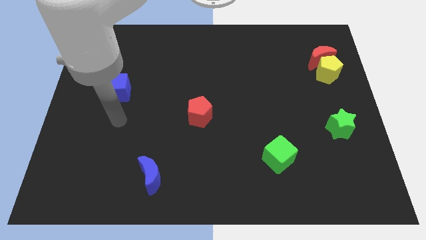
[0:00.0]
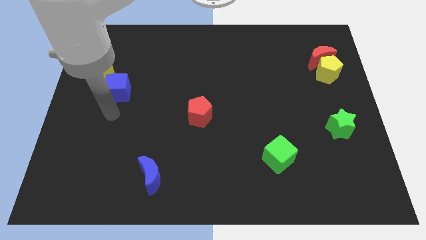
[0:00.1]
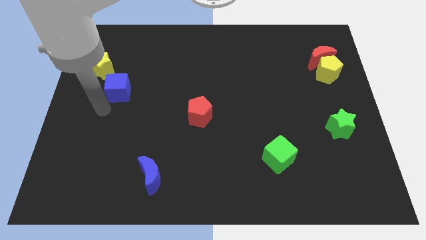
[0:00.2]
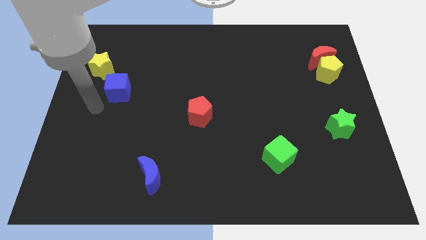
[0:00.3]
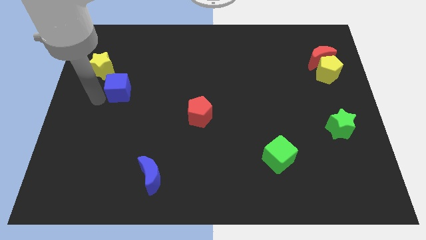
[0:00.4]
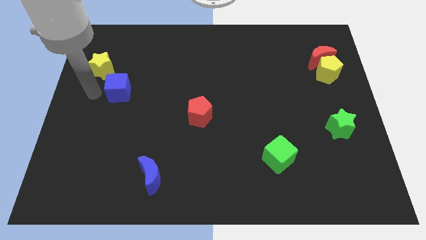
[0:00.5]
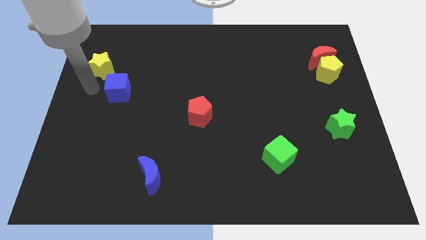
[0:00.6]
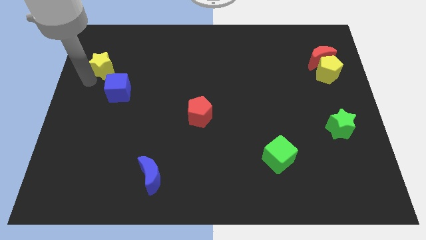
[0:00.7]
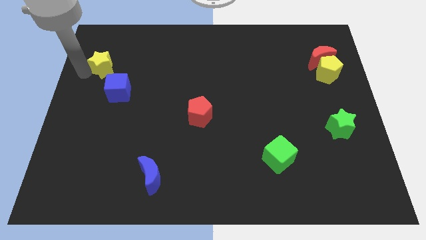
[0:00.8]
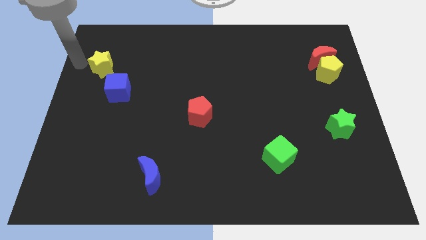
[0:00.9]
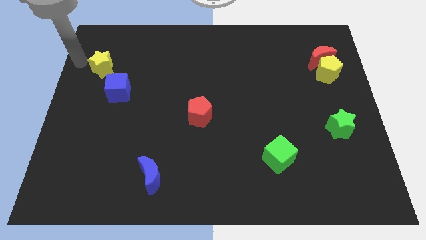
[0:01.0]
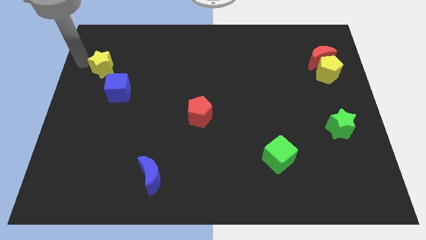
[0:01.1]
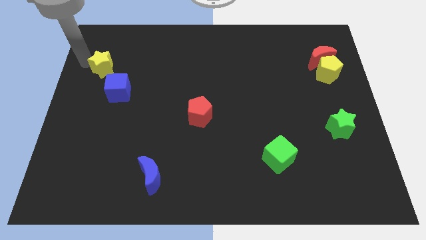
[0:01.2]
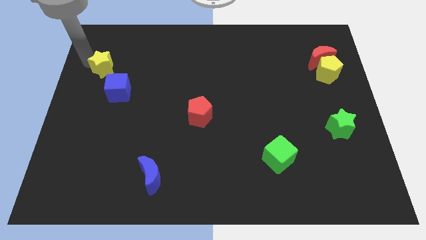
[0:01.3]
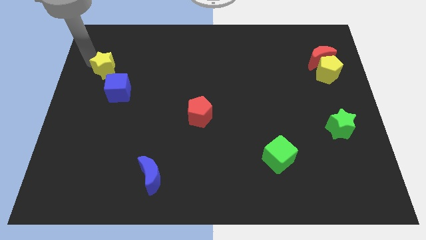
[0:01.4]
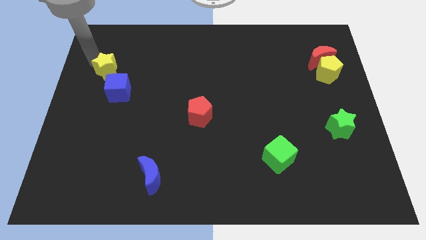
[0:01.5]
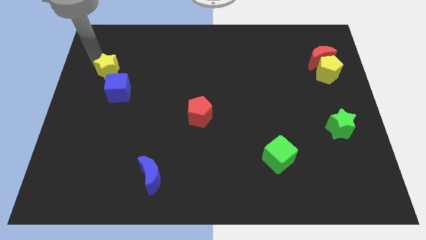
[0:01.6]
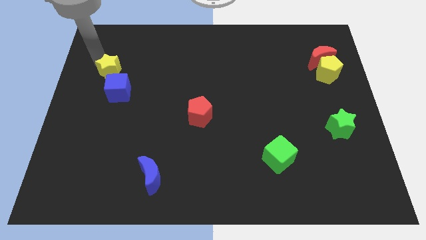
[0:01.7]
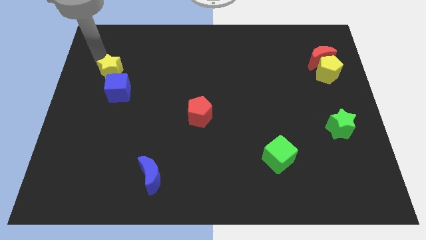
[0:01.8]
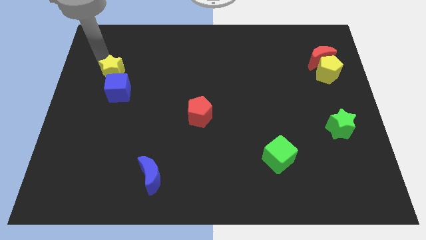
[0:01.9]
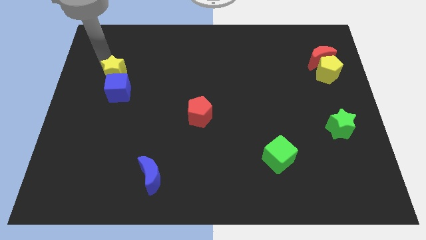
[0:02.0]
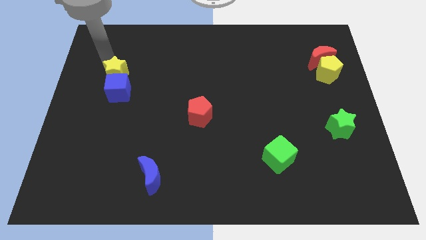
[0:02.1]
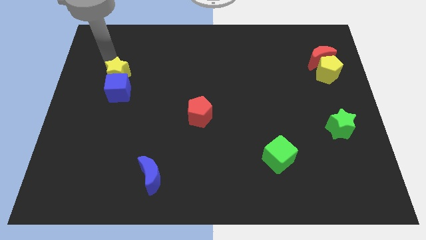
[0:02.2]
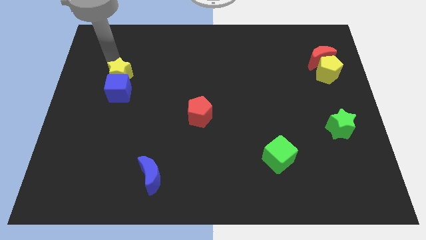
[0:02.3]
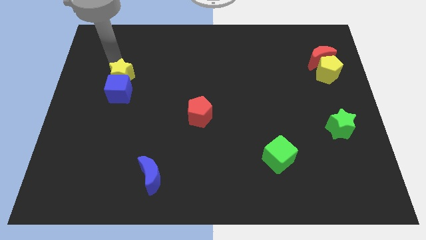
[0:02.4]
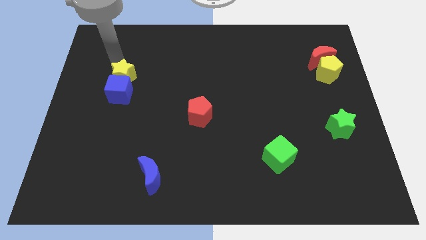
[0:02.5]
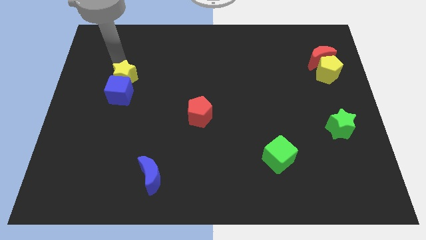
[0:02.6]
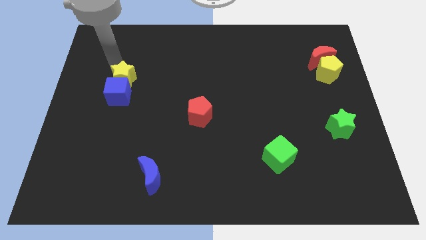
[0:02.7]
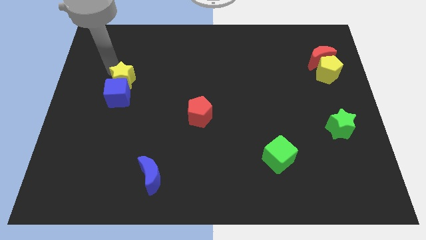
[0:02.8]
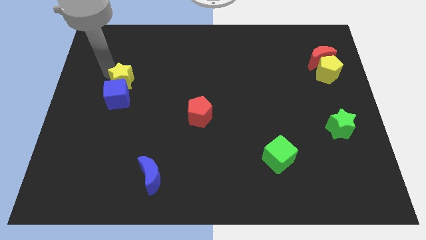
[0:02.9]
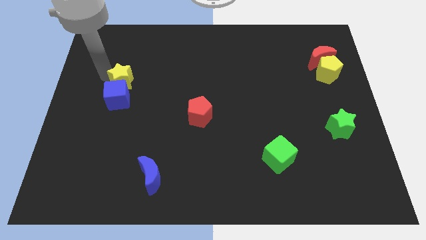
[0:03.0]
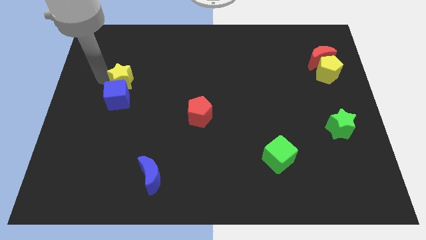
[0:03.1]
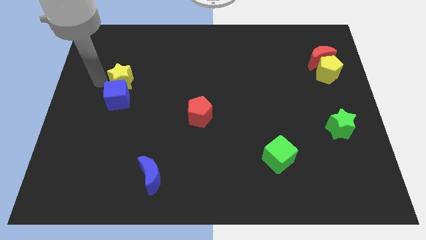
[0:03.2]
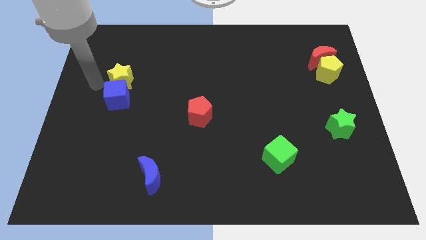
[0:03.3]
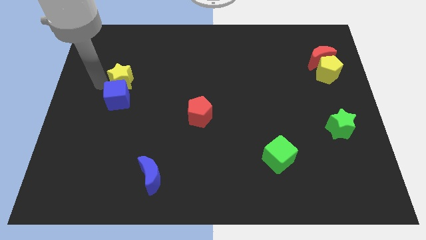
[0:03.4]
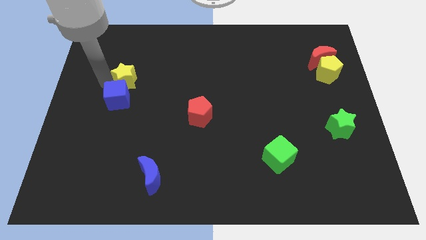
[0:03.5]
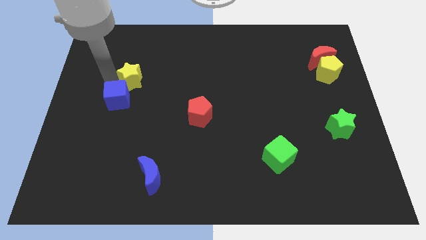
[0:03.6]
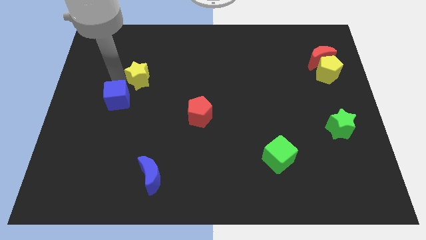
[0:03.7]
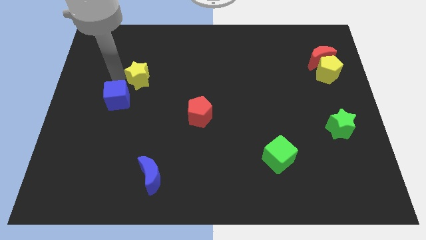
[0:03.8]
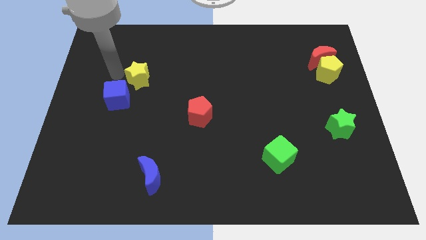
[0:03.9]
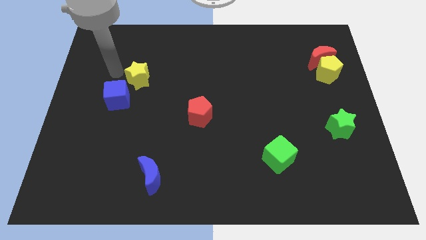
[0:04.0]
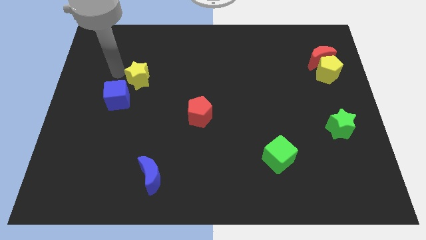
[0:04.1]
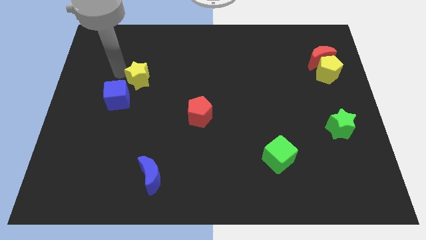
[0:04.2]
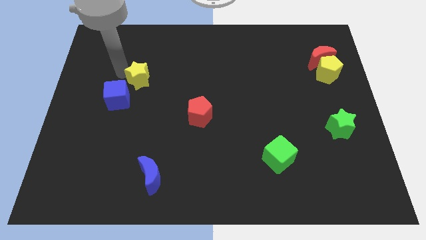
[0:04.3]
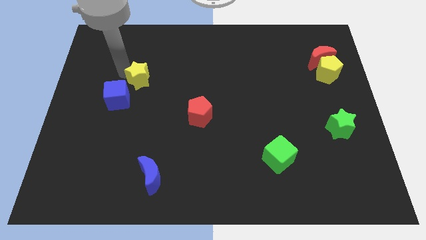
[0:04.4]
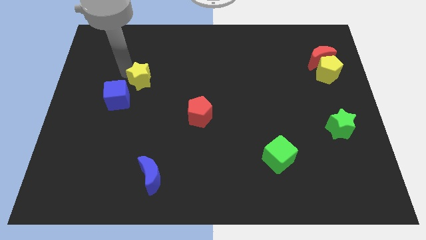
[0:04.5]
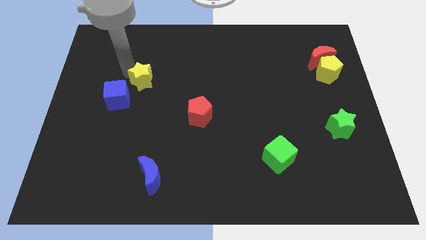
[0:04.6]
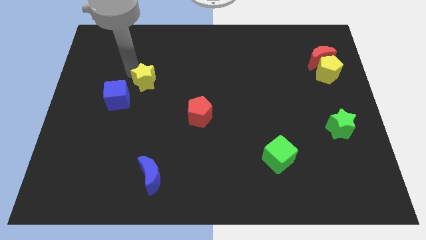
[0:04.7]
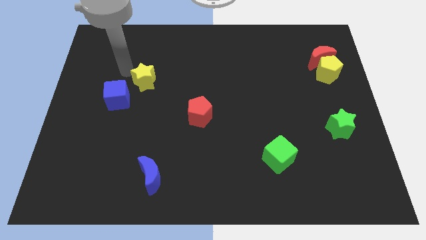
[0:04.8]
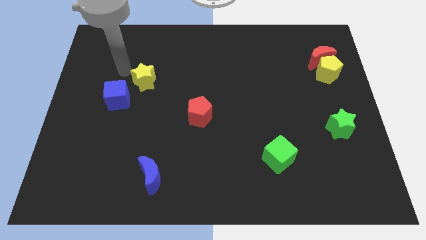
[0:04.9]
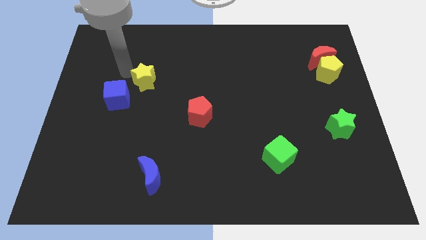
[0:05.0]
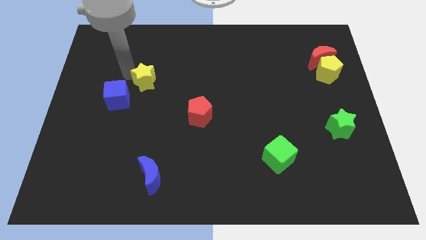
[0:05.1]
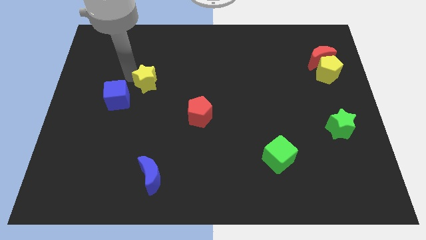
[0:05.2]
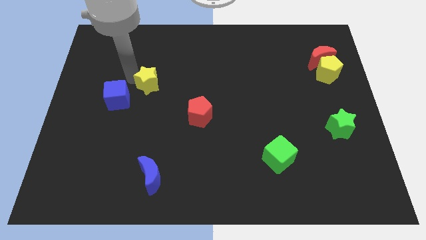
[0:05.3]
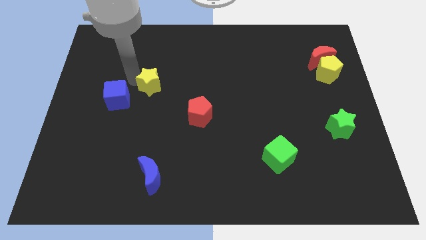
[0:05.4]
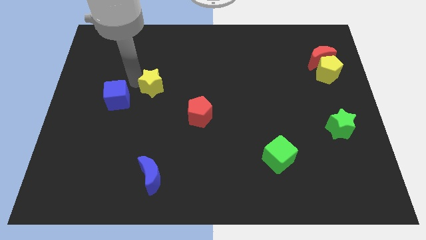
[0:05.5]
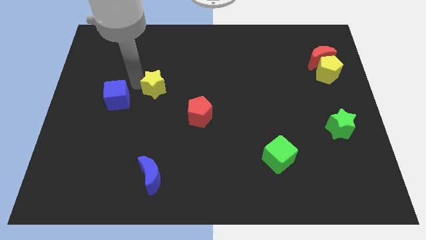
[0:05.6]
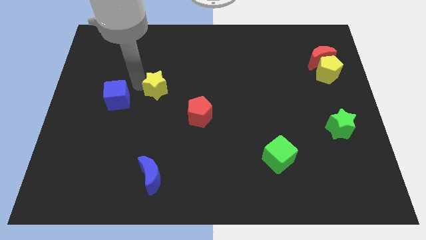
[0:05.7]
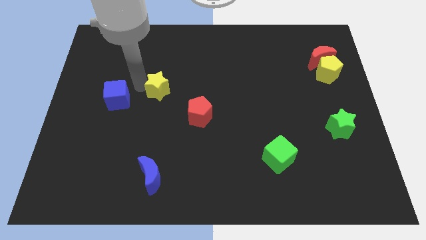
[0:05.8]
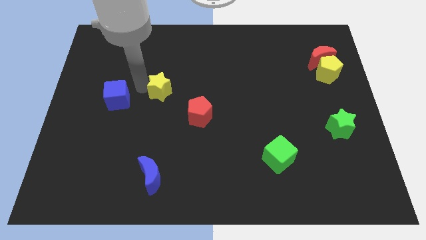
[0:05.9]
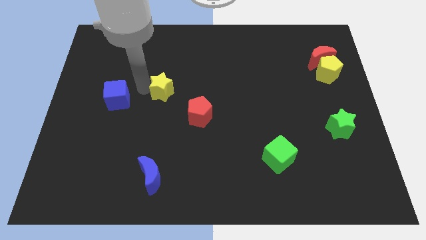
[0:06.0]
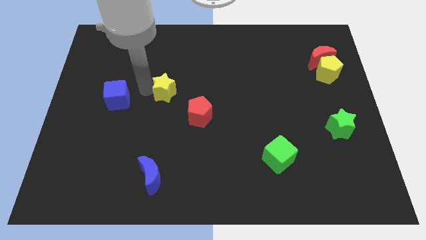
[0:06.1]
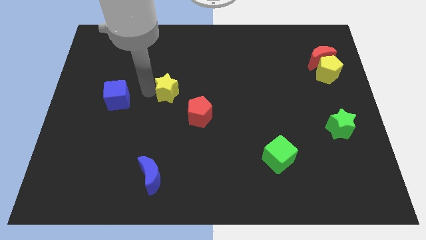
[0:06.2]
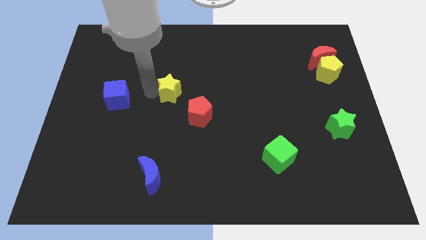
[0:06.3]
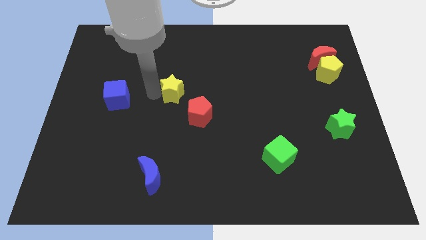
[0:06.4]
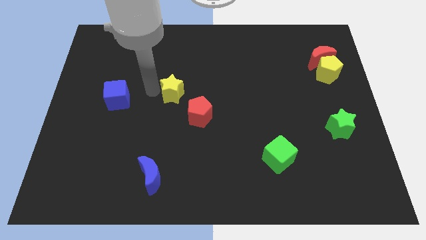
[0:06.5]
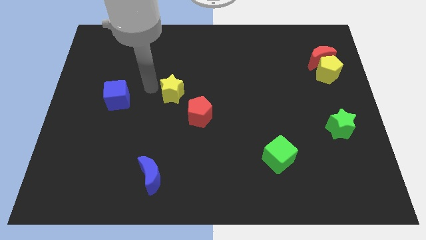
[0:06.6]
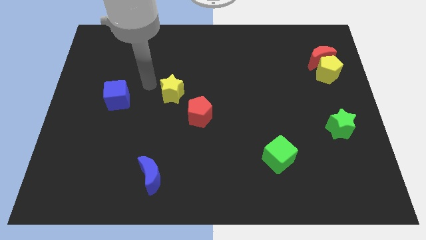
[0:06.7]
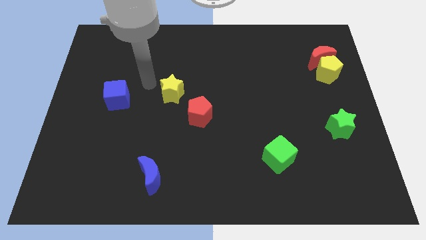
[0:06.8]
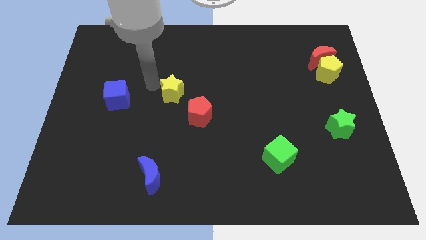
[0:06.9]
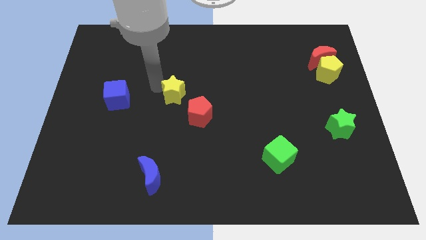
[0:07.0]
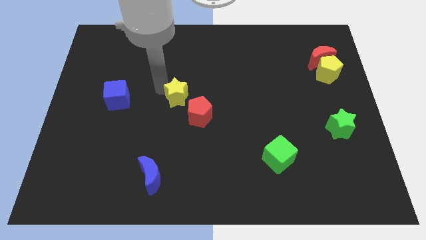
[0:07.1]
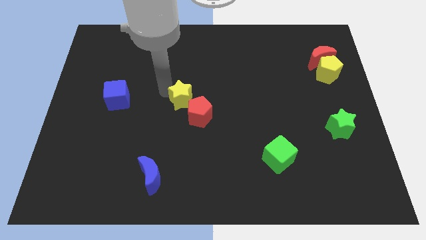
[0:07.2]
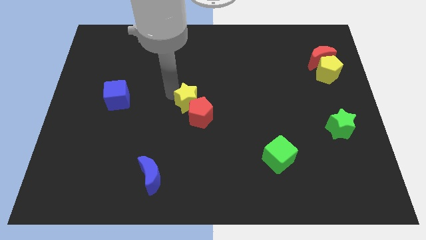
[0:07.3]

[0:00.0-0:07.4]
move the yellow star next to the red pentagon
